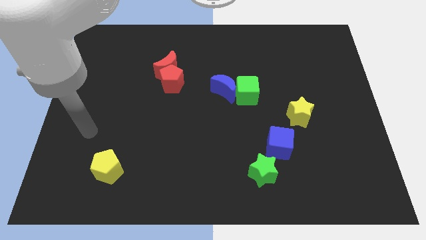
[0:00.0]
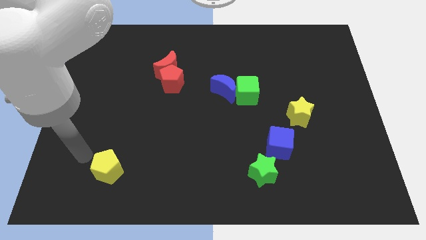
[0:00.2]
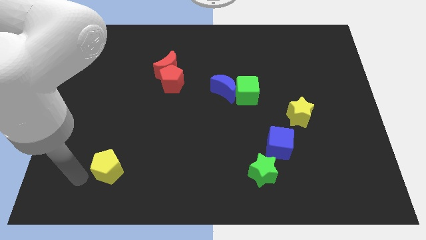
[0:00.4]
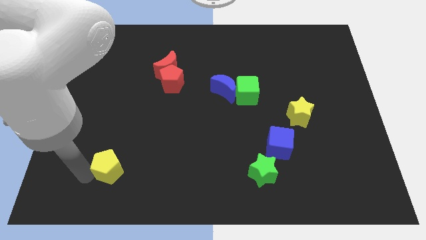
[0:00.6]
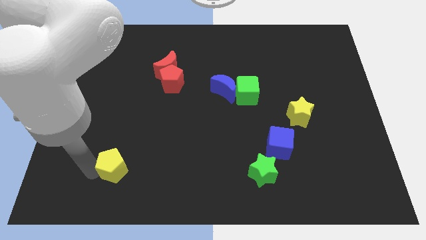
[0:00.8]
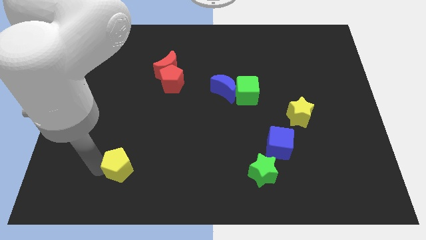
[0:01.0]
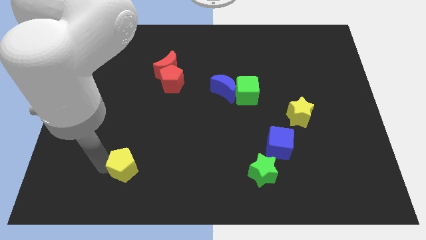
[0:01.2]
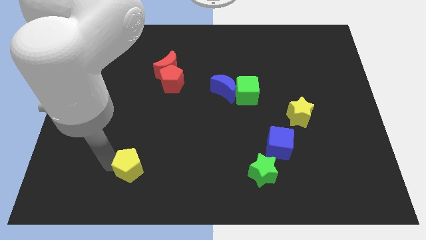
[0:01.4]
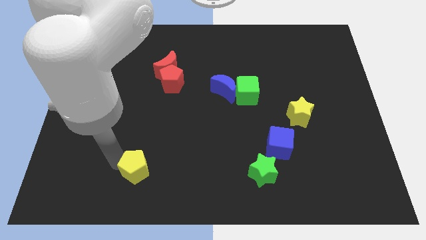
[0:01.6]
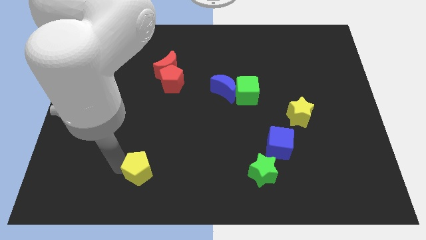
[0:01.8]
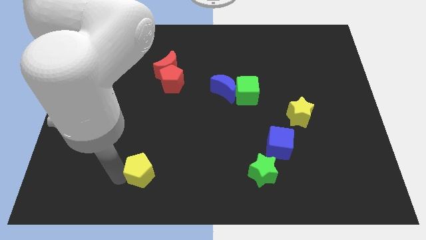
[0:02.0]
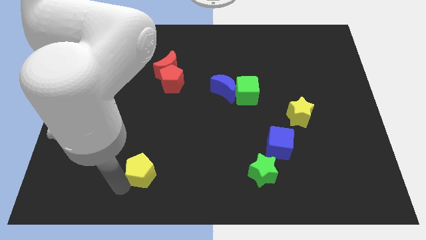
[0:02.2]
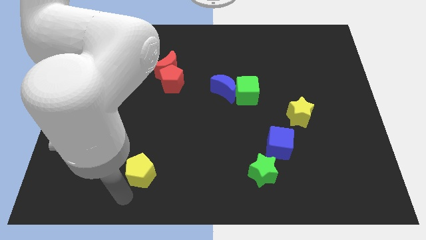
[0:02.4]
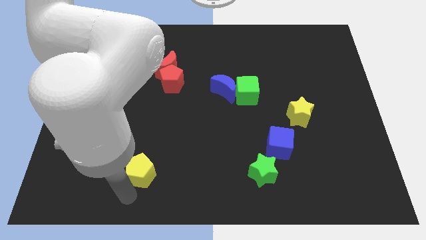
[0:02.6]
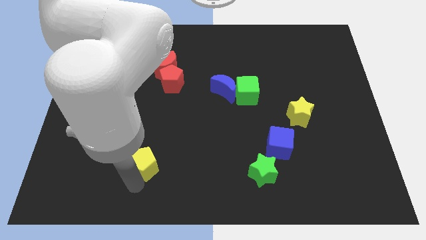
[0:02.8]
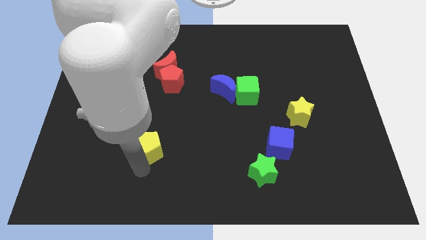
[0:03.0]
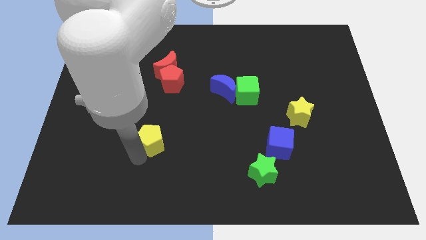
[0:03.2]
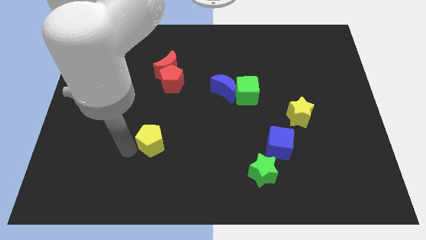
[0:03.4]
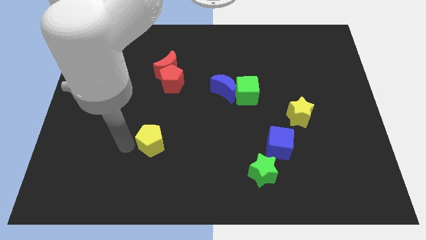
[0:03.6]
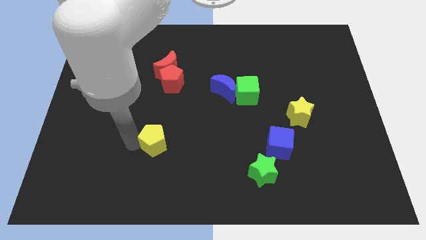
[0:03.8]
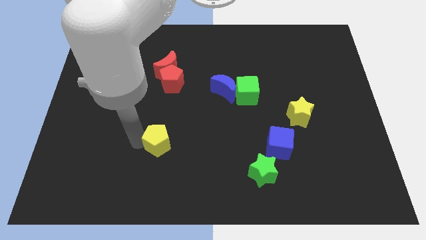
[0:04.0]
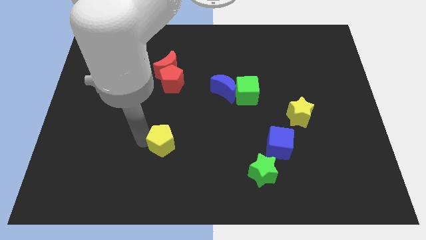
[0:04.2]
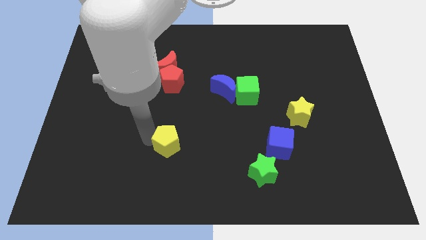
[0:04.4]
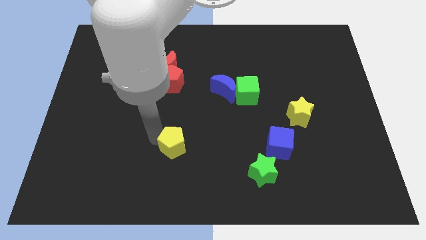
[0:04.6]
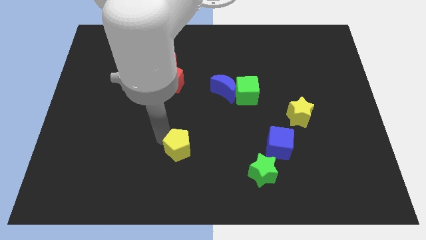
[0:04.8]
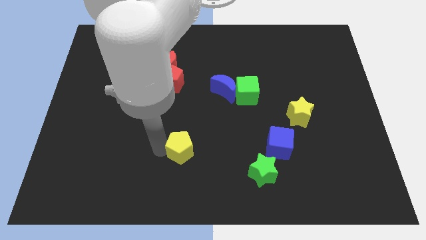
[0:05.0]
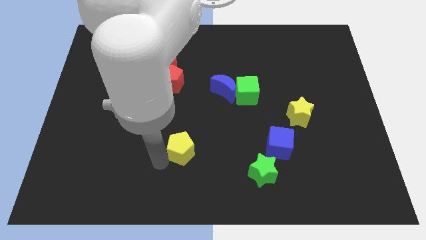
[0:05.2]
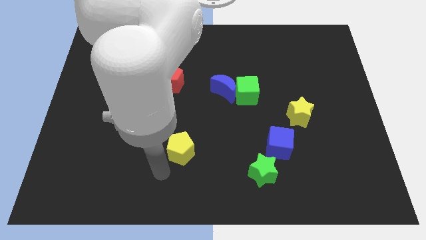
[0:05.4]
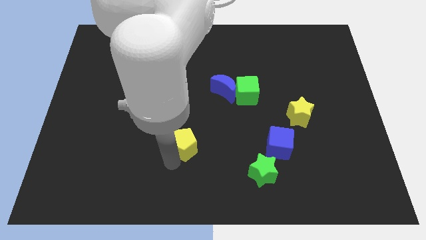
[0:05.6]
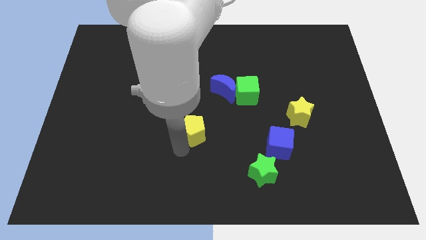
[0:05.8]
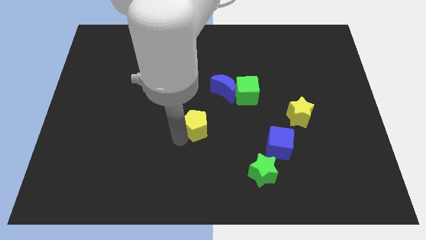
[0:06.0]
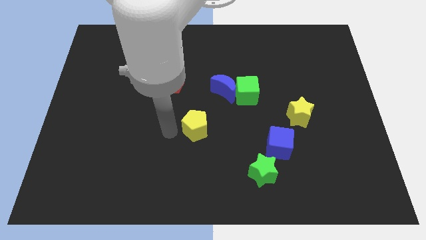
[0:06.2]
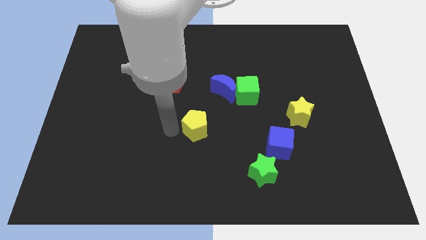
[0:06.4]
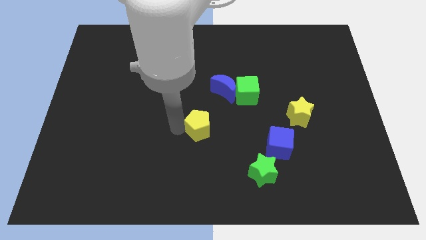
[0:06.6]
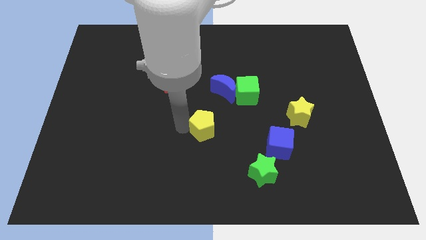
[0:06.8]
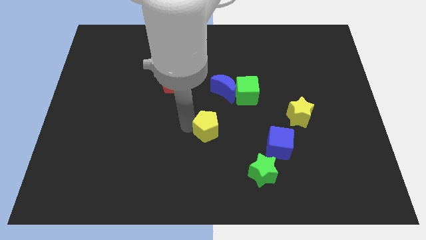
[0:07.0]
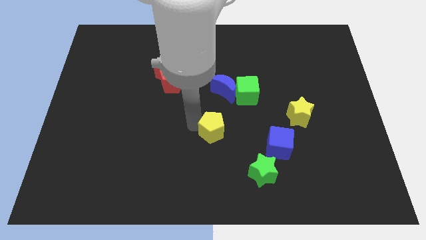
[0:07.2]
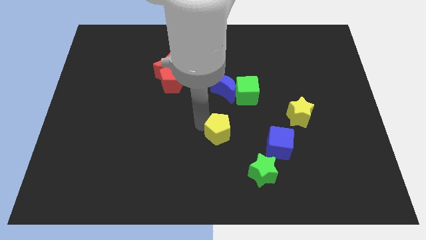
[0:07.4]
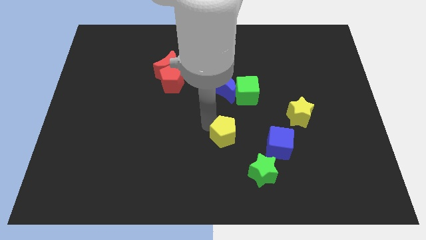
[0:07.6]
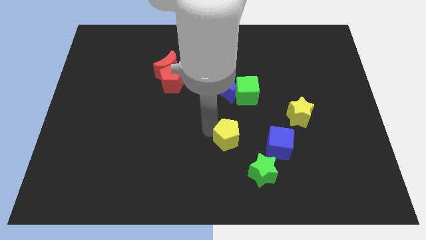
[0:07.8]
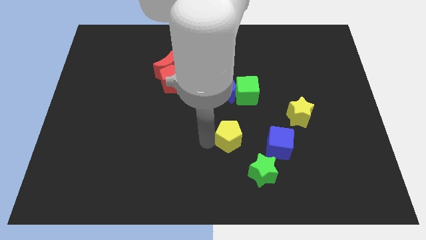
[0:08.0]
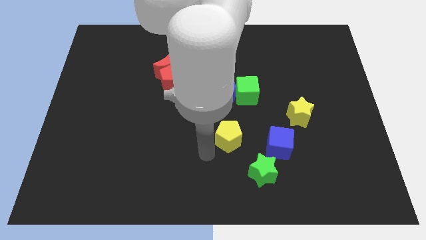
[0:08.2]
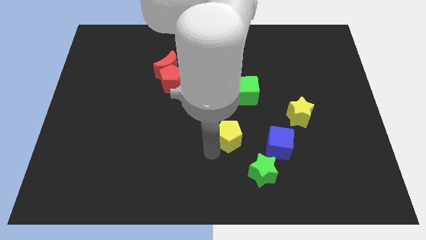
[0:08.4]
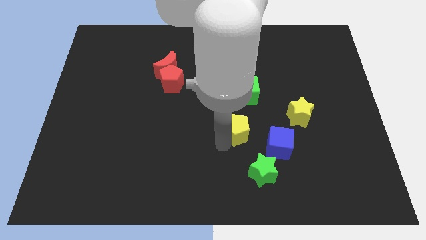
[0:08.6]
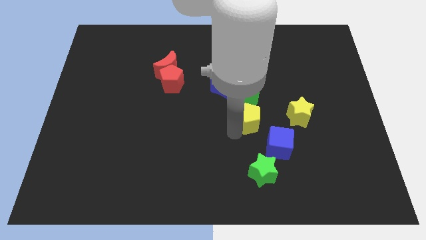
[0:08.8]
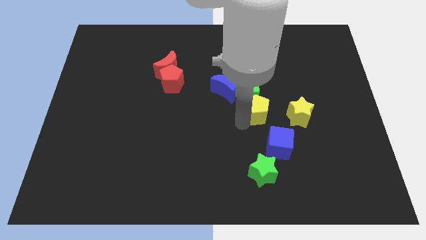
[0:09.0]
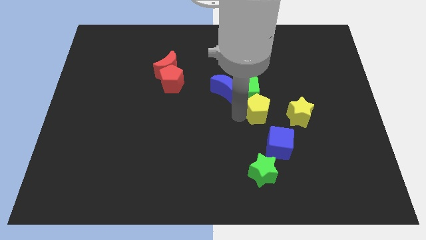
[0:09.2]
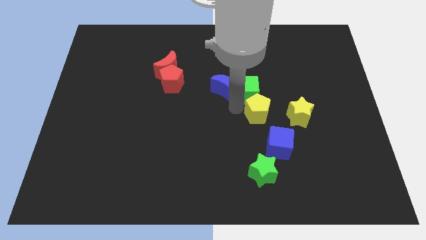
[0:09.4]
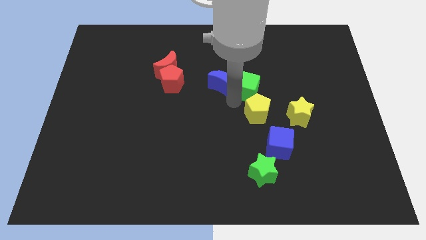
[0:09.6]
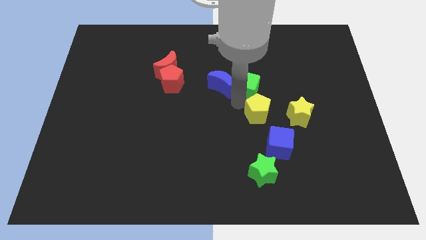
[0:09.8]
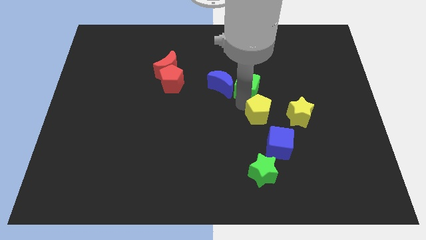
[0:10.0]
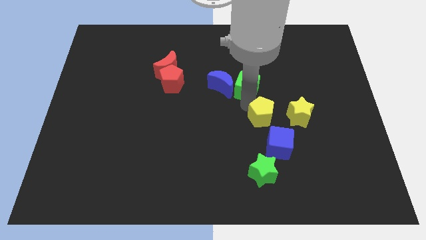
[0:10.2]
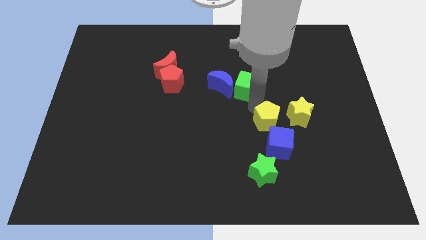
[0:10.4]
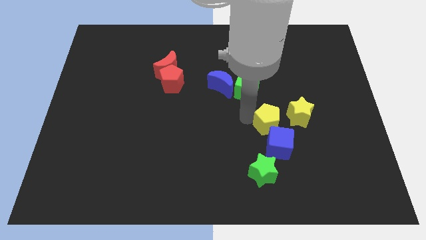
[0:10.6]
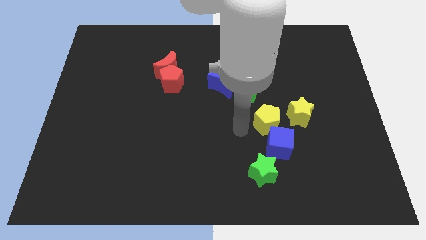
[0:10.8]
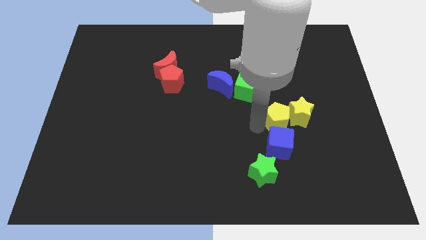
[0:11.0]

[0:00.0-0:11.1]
push the yellow pentagon to the yellow star

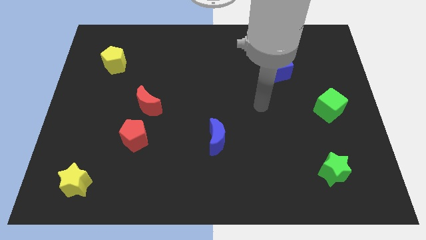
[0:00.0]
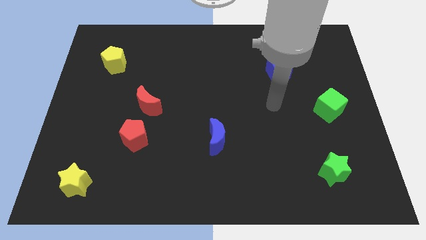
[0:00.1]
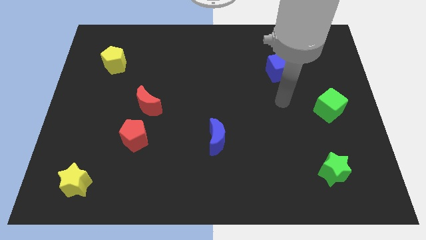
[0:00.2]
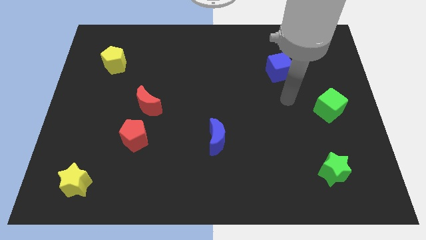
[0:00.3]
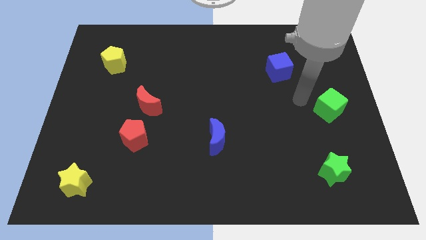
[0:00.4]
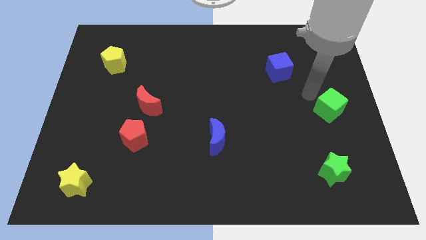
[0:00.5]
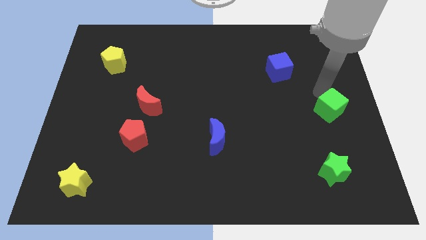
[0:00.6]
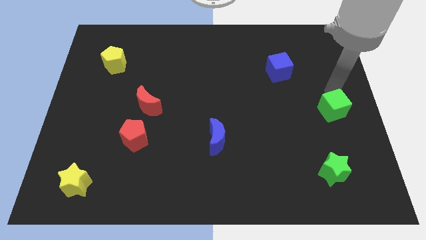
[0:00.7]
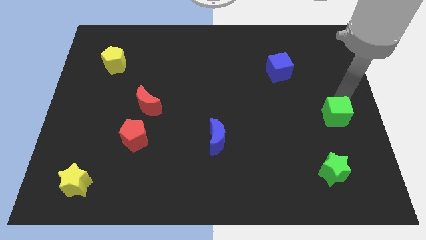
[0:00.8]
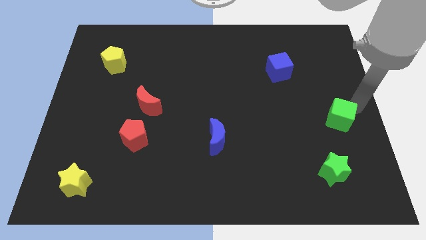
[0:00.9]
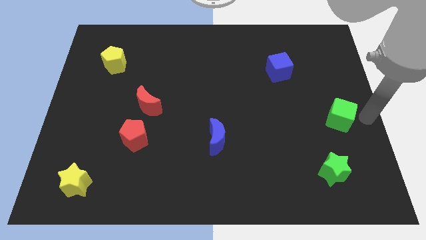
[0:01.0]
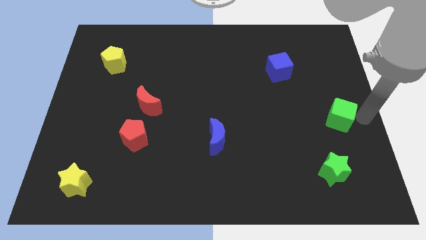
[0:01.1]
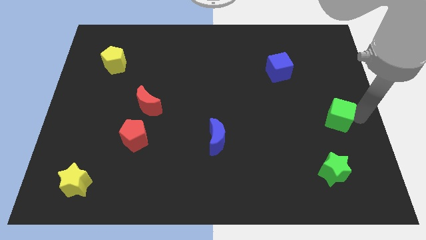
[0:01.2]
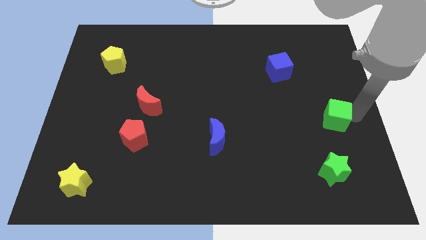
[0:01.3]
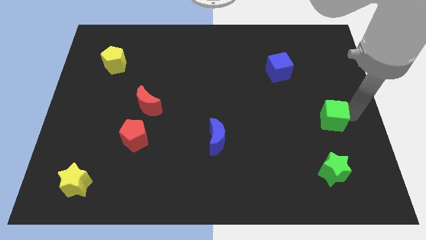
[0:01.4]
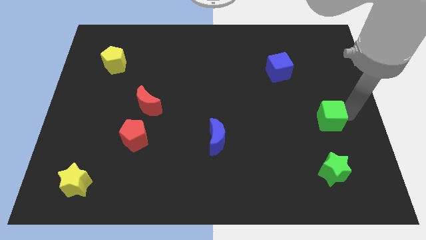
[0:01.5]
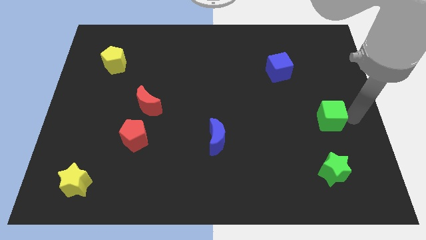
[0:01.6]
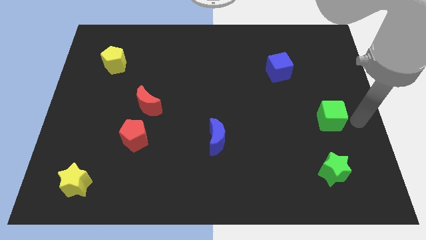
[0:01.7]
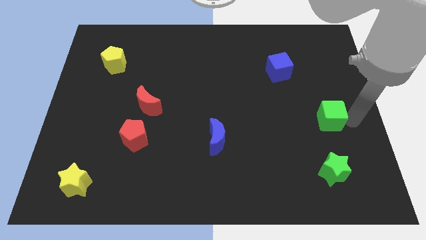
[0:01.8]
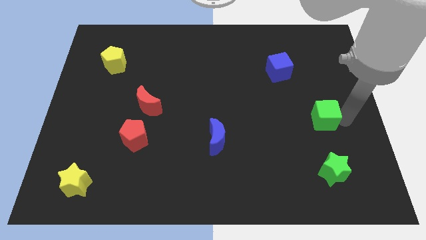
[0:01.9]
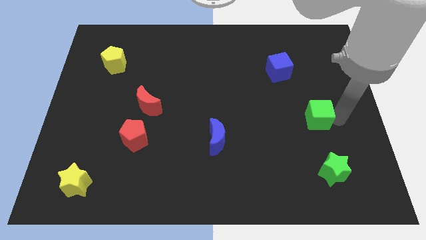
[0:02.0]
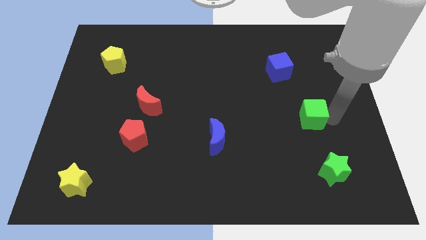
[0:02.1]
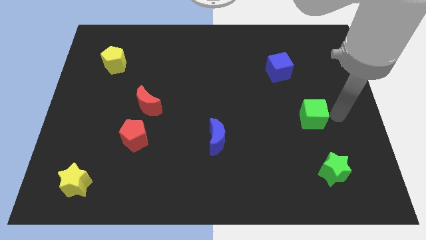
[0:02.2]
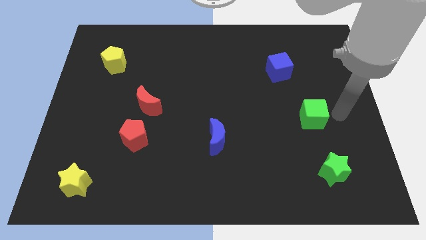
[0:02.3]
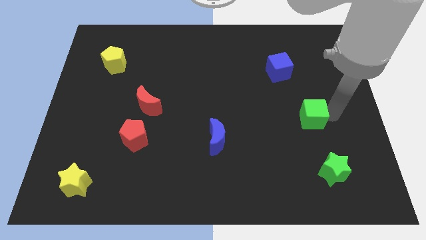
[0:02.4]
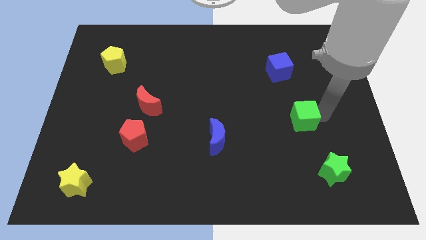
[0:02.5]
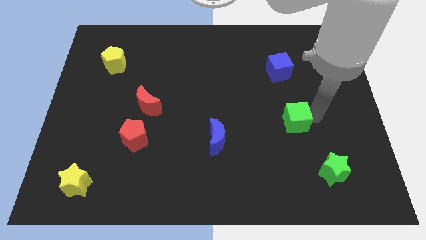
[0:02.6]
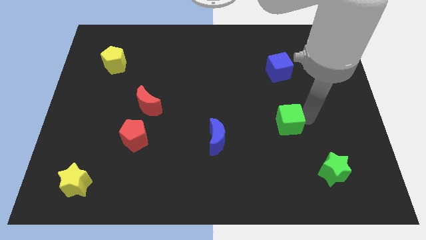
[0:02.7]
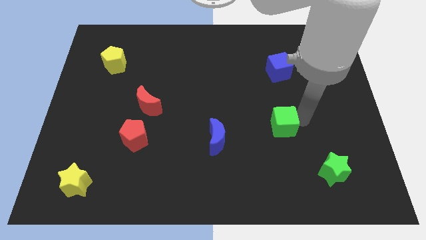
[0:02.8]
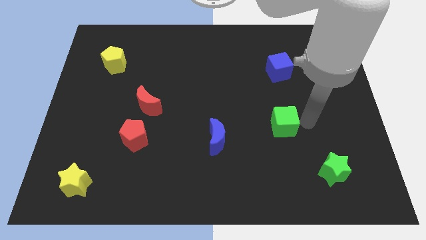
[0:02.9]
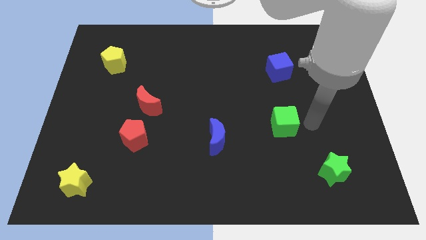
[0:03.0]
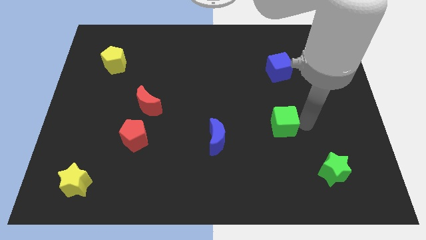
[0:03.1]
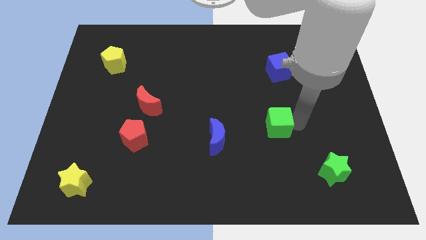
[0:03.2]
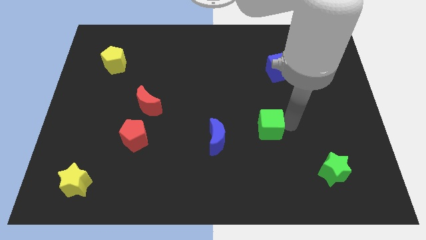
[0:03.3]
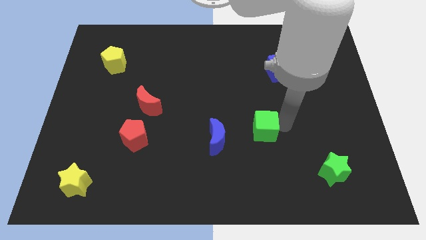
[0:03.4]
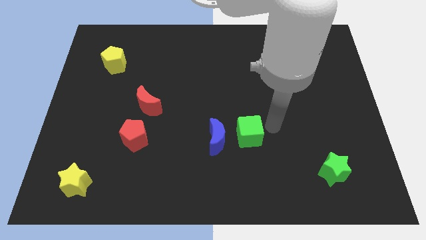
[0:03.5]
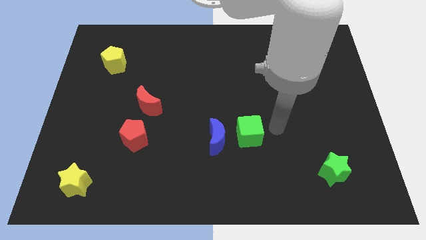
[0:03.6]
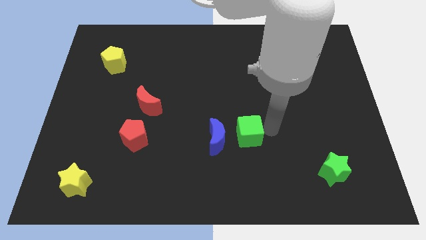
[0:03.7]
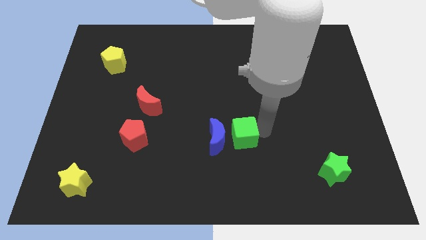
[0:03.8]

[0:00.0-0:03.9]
move the green cube close to the blue moon
